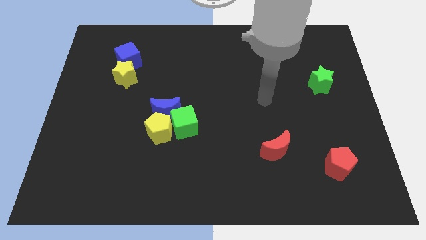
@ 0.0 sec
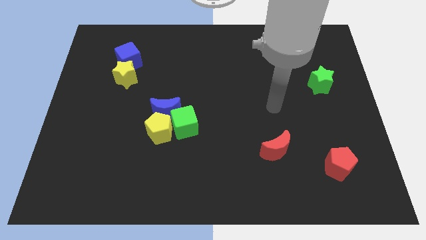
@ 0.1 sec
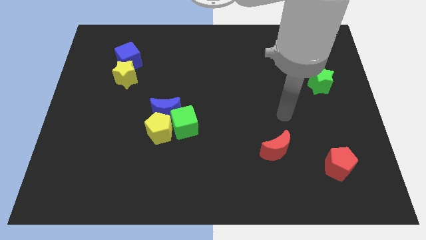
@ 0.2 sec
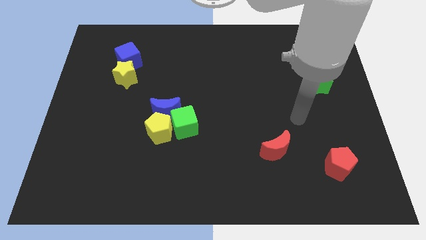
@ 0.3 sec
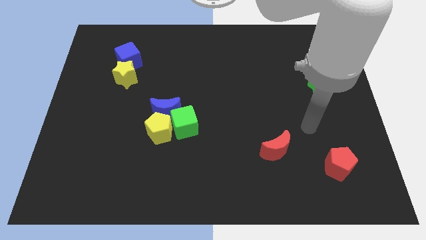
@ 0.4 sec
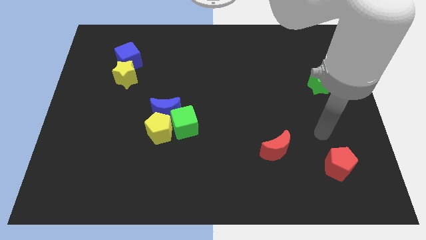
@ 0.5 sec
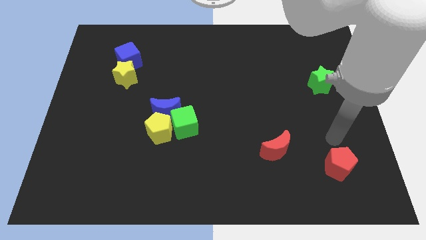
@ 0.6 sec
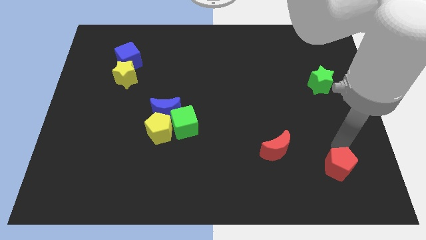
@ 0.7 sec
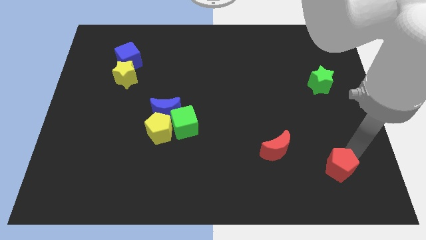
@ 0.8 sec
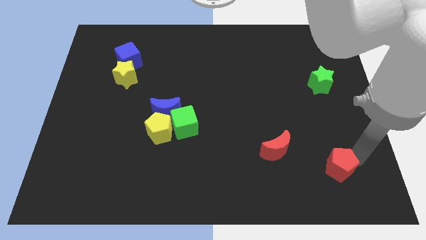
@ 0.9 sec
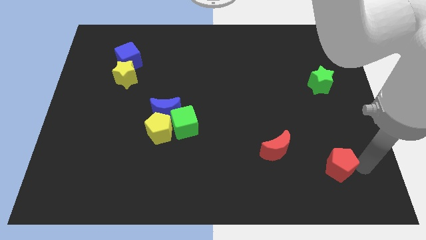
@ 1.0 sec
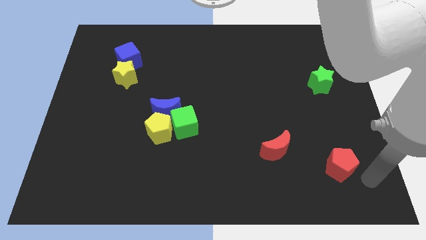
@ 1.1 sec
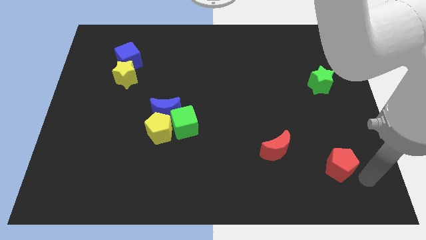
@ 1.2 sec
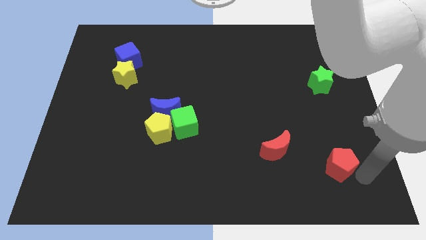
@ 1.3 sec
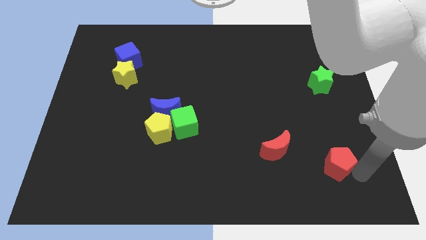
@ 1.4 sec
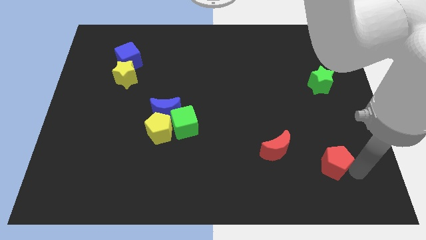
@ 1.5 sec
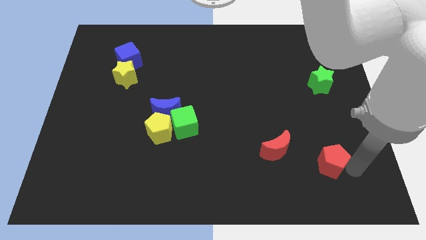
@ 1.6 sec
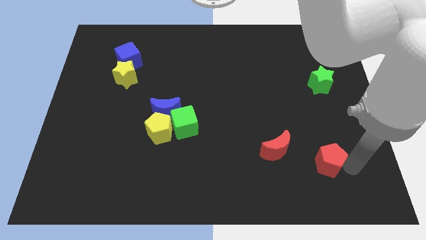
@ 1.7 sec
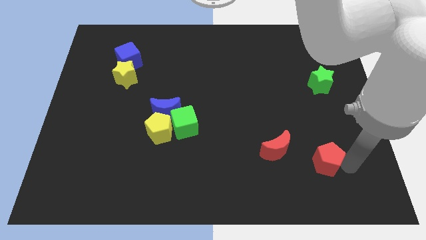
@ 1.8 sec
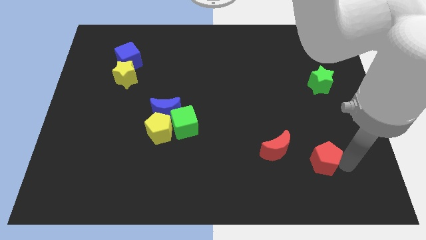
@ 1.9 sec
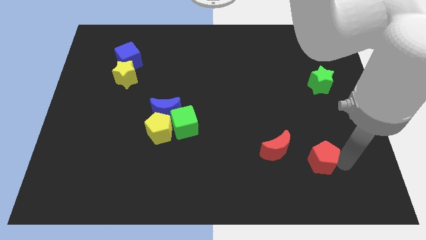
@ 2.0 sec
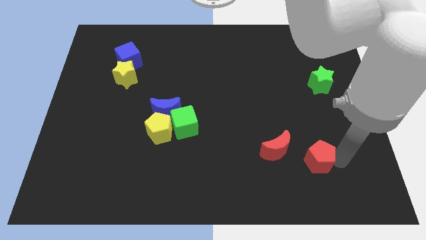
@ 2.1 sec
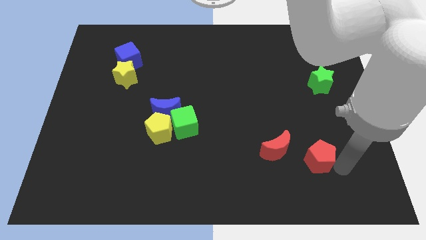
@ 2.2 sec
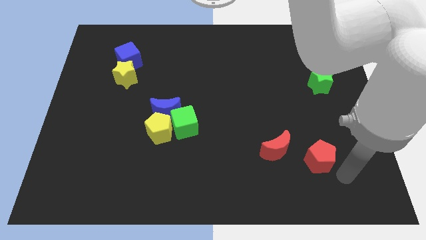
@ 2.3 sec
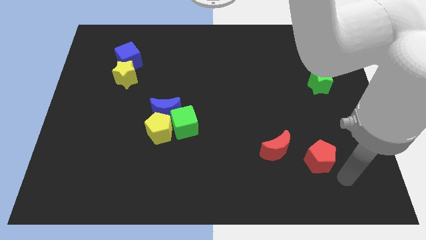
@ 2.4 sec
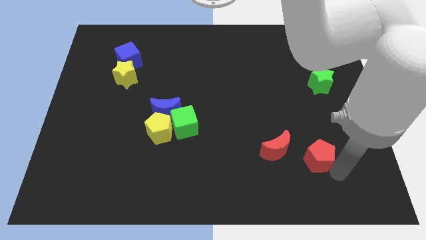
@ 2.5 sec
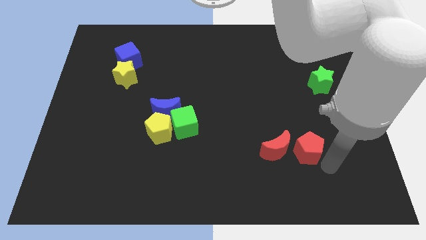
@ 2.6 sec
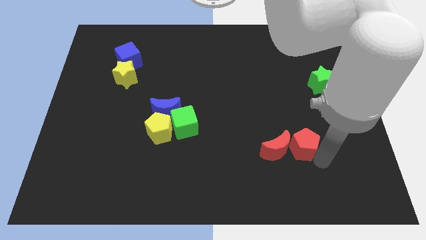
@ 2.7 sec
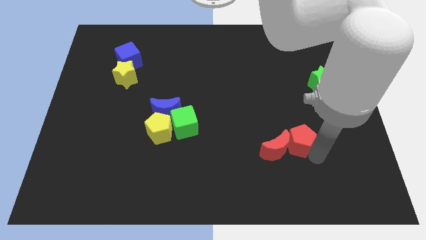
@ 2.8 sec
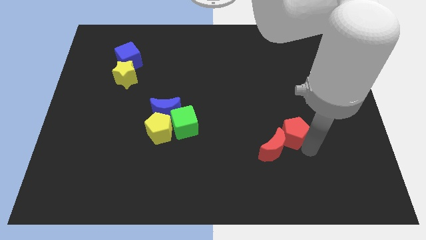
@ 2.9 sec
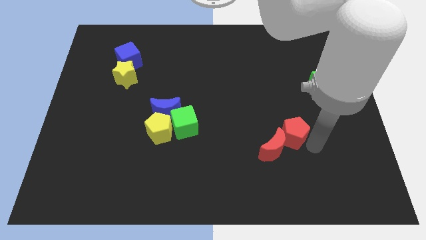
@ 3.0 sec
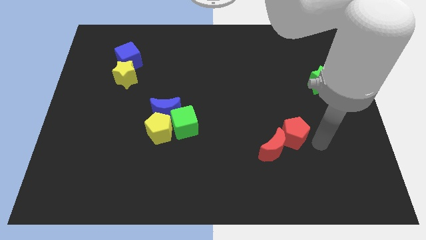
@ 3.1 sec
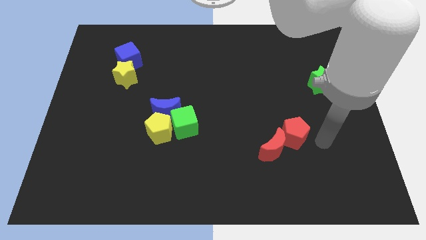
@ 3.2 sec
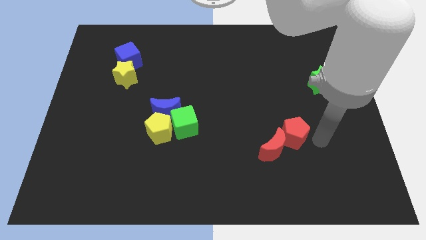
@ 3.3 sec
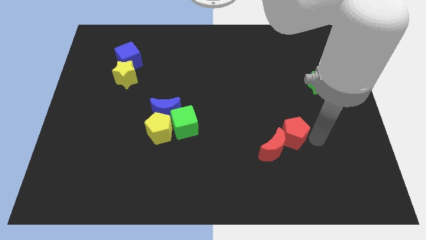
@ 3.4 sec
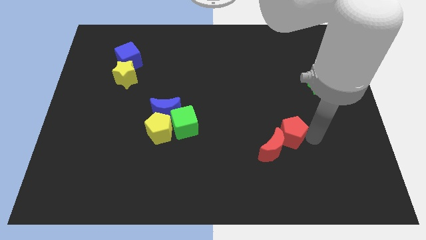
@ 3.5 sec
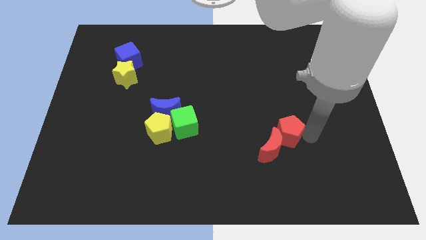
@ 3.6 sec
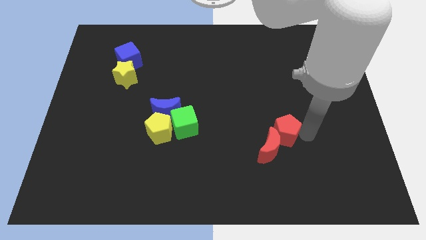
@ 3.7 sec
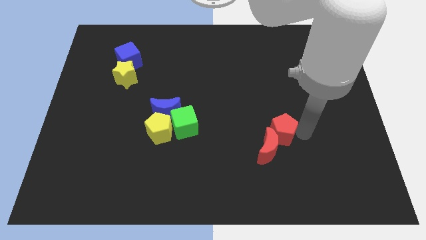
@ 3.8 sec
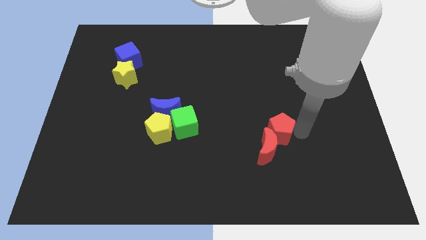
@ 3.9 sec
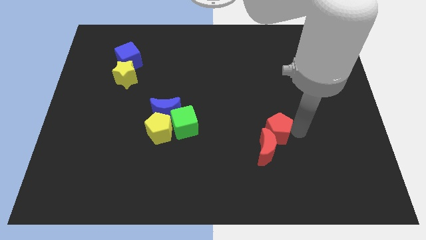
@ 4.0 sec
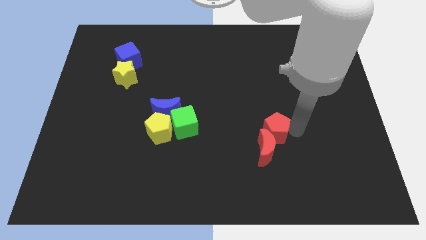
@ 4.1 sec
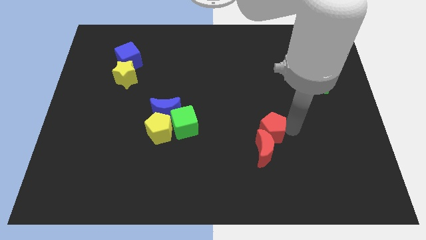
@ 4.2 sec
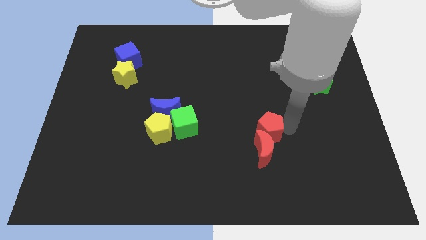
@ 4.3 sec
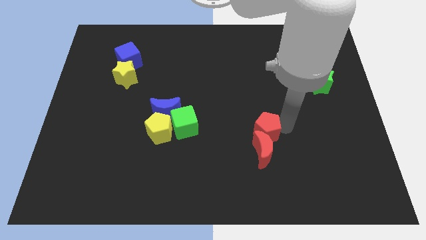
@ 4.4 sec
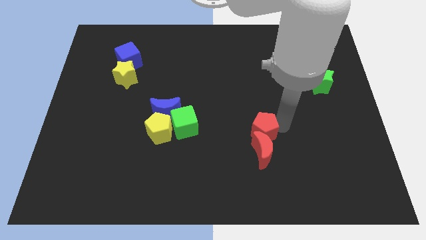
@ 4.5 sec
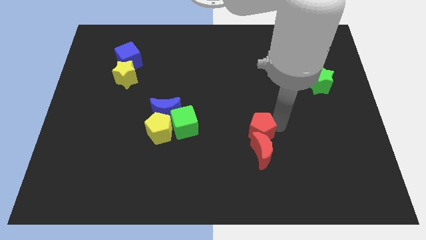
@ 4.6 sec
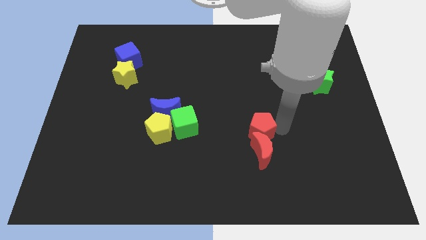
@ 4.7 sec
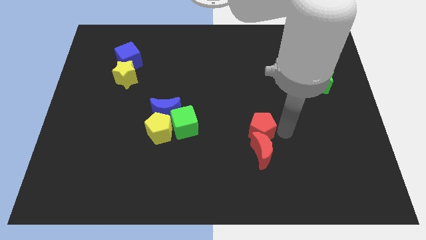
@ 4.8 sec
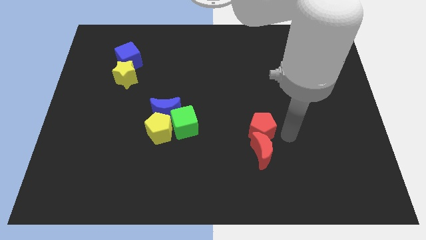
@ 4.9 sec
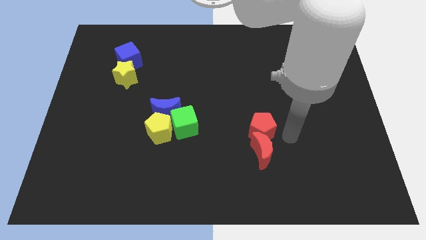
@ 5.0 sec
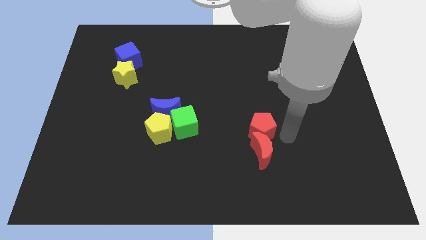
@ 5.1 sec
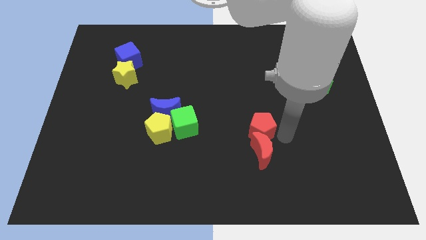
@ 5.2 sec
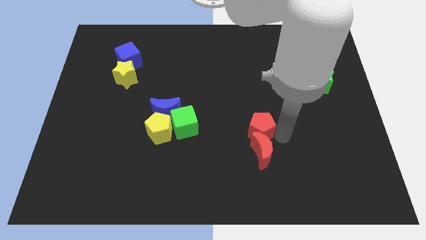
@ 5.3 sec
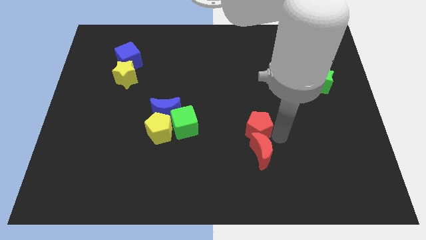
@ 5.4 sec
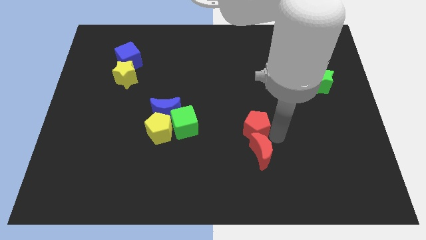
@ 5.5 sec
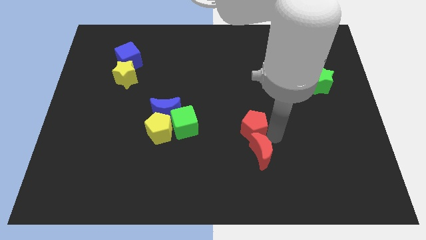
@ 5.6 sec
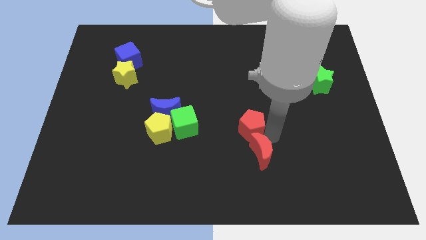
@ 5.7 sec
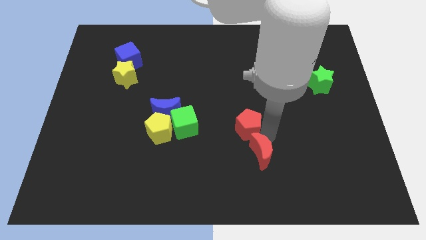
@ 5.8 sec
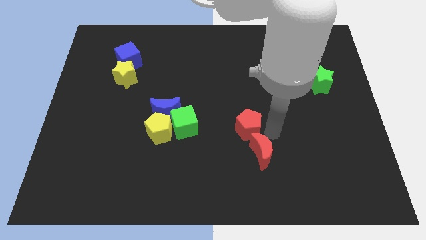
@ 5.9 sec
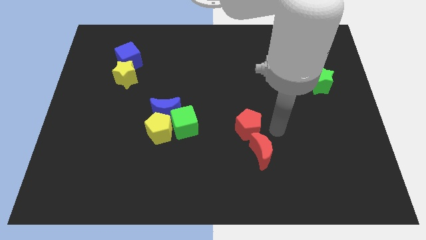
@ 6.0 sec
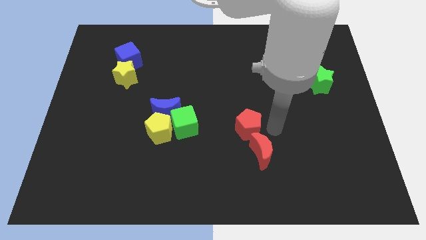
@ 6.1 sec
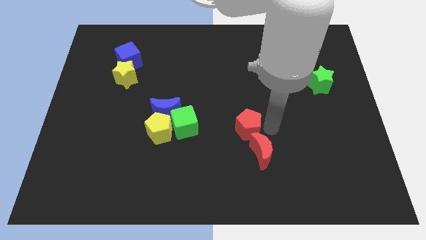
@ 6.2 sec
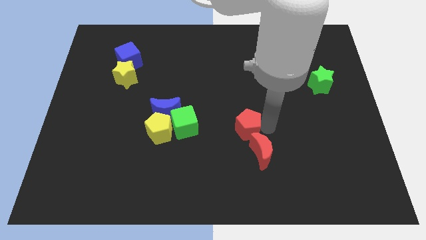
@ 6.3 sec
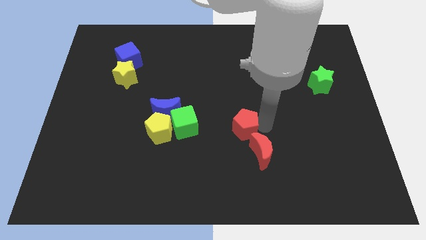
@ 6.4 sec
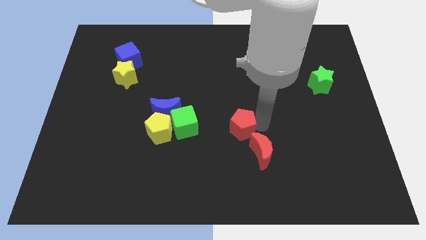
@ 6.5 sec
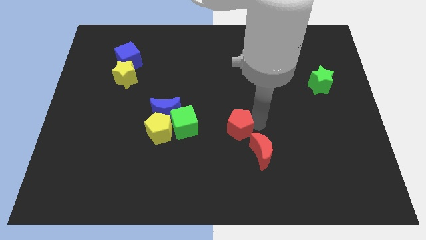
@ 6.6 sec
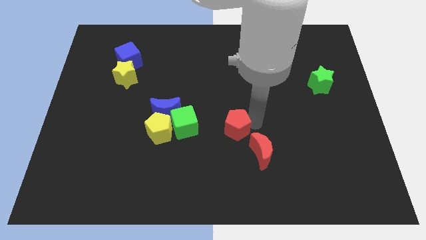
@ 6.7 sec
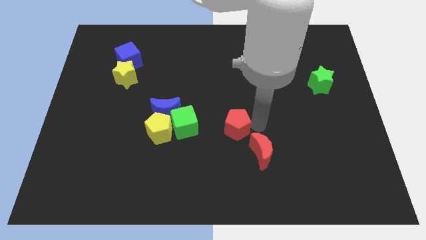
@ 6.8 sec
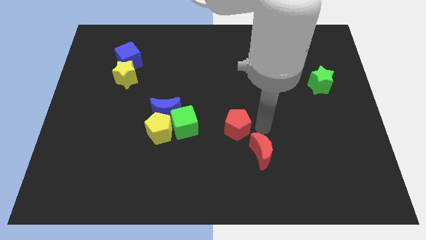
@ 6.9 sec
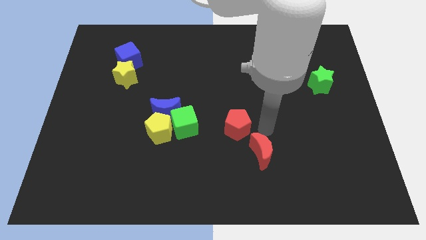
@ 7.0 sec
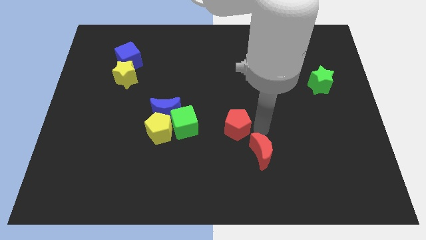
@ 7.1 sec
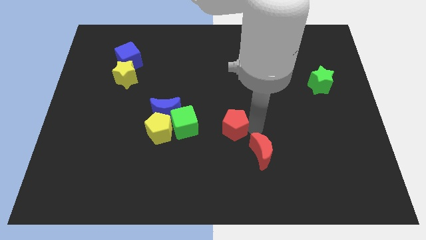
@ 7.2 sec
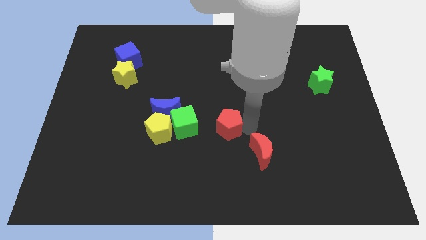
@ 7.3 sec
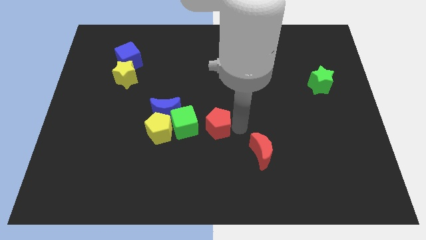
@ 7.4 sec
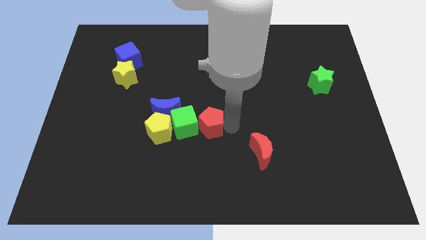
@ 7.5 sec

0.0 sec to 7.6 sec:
move the red pentagon close to the green cube
